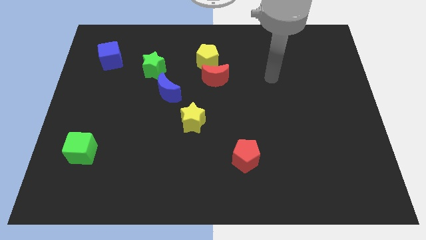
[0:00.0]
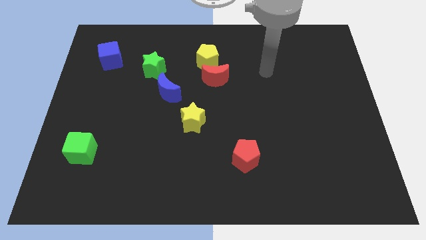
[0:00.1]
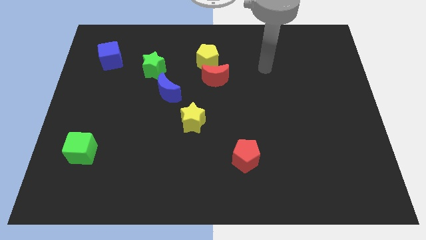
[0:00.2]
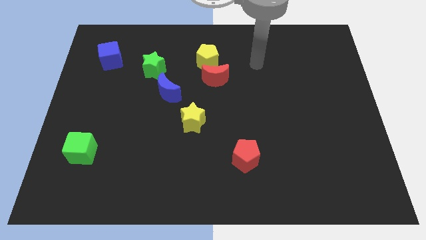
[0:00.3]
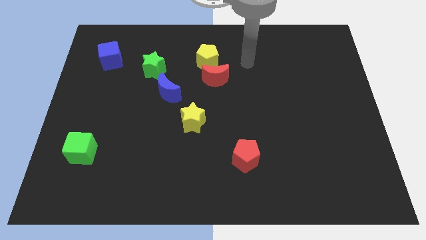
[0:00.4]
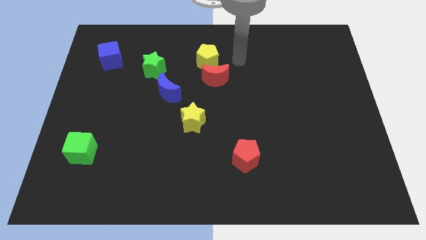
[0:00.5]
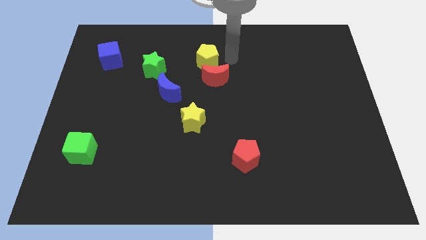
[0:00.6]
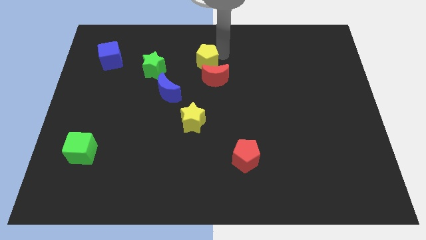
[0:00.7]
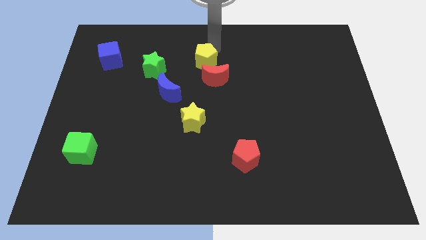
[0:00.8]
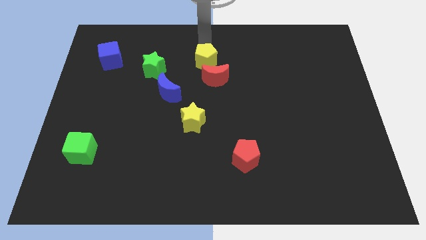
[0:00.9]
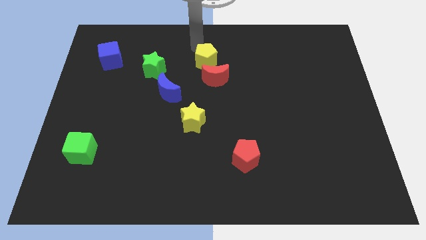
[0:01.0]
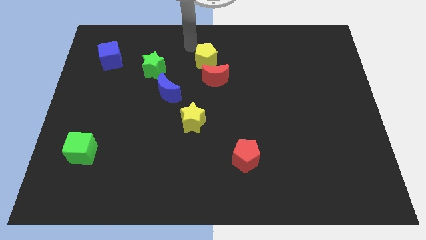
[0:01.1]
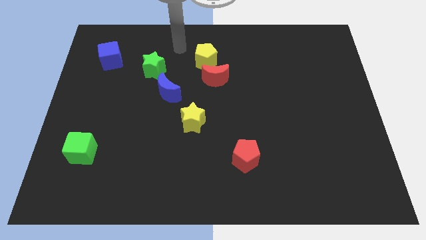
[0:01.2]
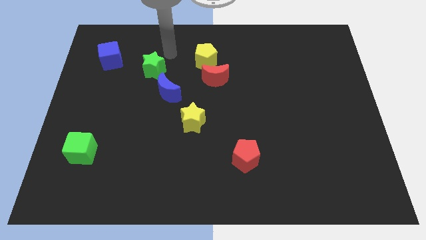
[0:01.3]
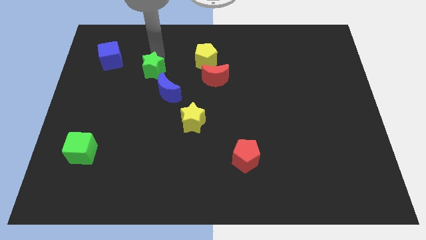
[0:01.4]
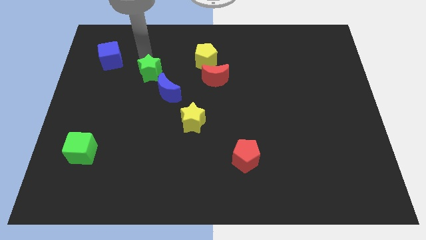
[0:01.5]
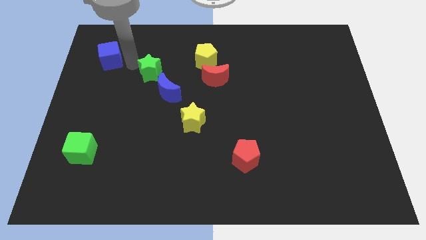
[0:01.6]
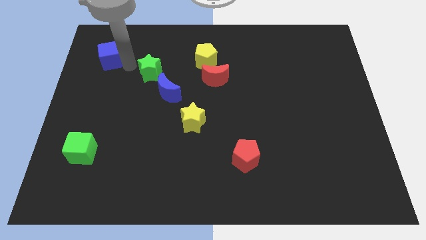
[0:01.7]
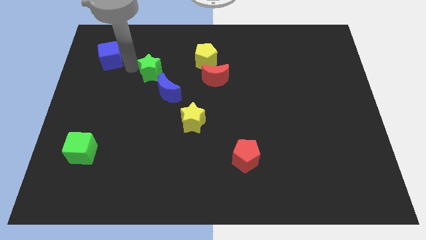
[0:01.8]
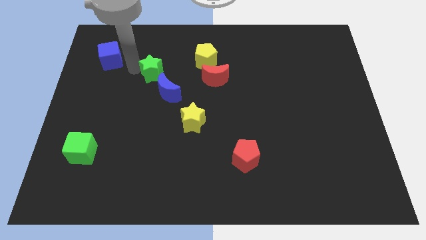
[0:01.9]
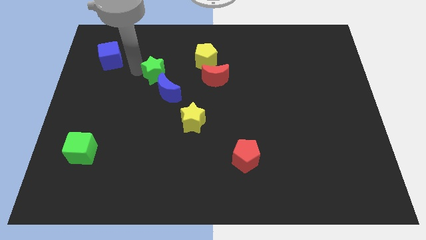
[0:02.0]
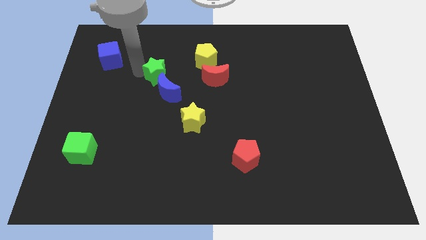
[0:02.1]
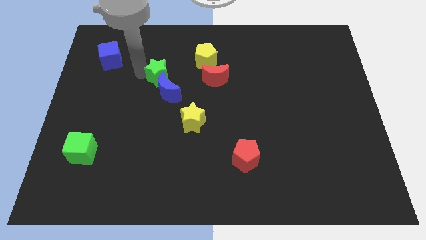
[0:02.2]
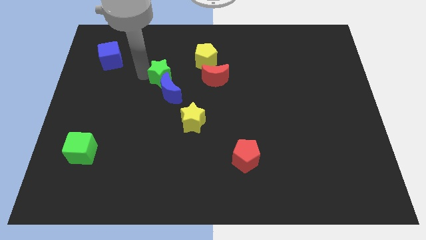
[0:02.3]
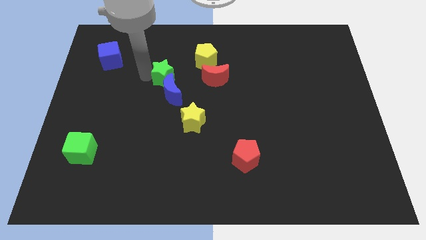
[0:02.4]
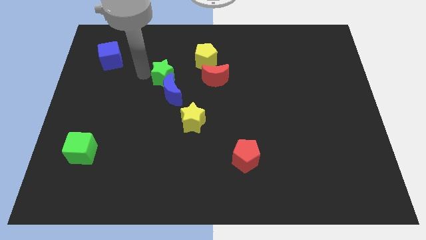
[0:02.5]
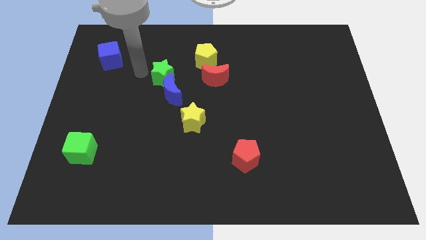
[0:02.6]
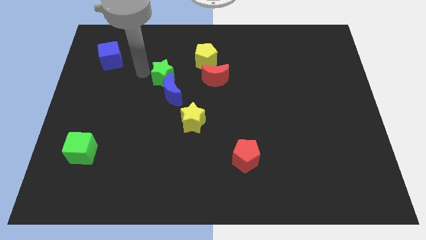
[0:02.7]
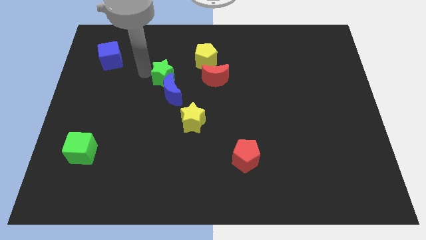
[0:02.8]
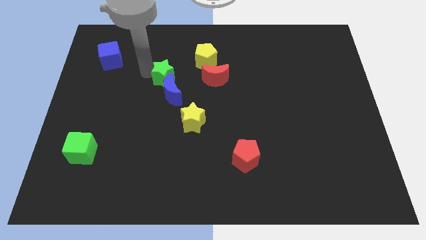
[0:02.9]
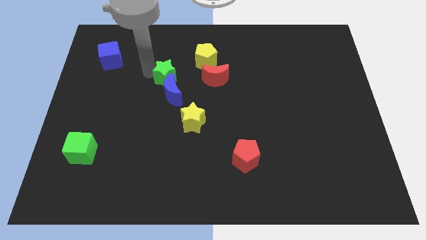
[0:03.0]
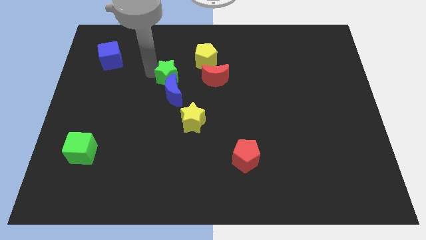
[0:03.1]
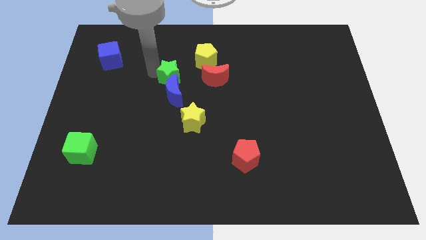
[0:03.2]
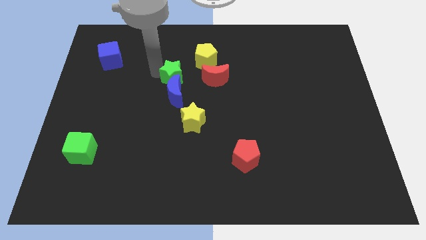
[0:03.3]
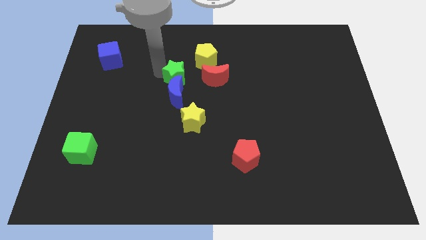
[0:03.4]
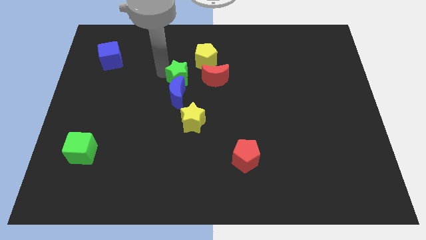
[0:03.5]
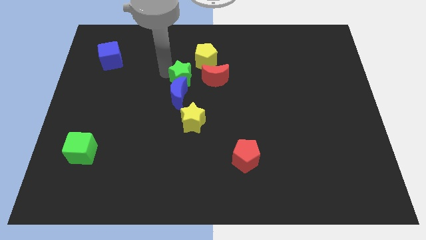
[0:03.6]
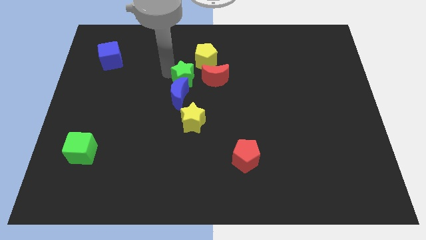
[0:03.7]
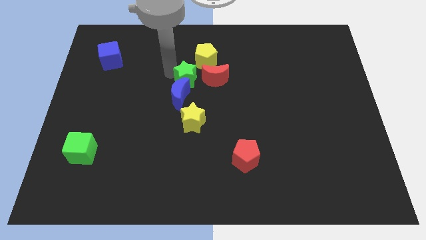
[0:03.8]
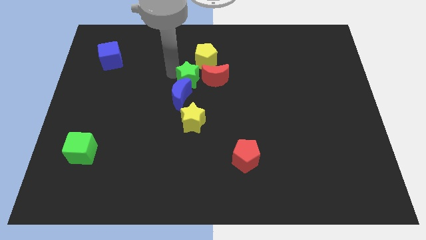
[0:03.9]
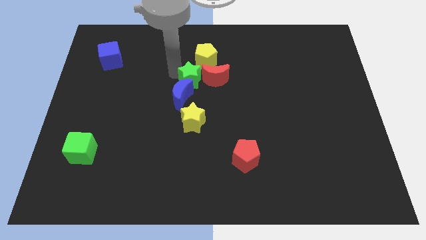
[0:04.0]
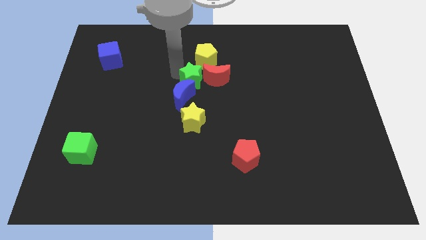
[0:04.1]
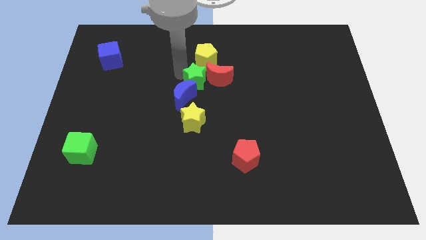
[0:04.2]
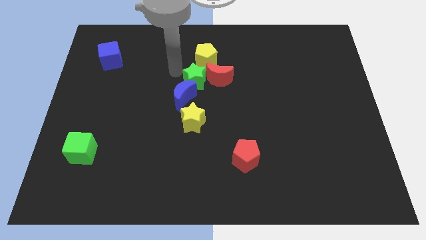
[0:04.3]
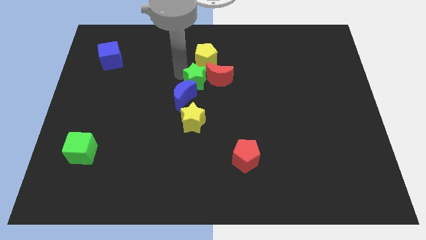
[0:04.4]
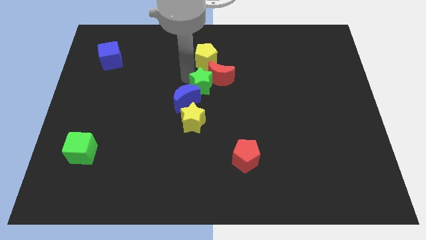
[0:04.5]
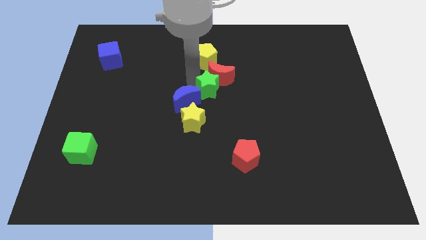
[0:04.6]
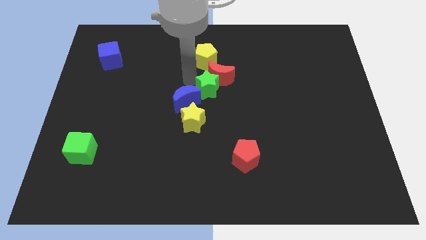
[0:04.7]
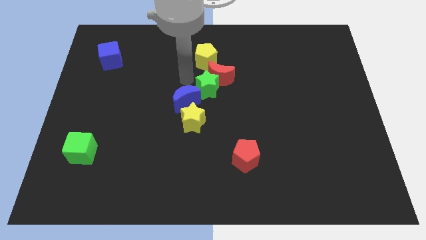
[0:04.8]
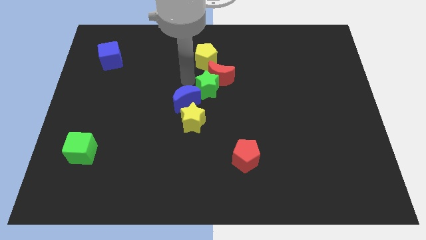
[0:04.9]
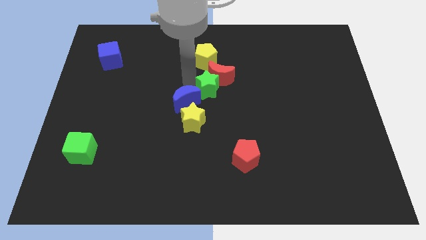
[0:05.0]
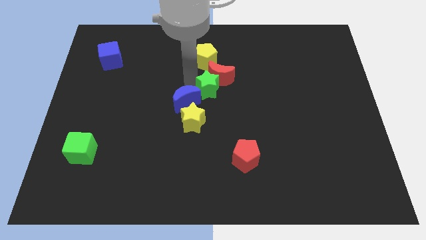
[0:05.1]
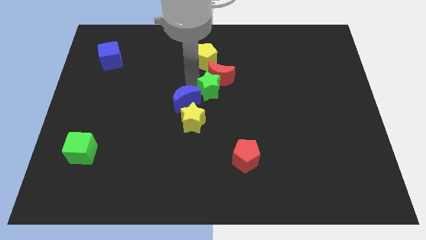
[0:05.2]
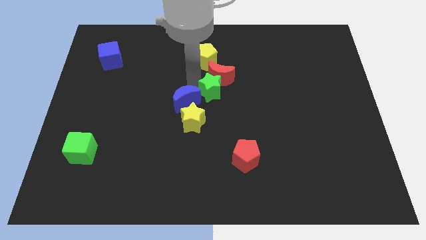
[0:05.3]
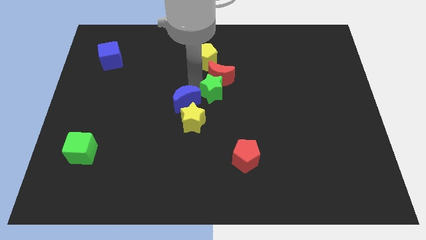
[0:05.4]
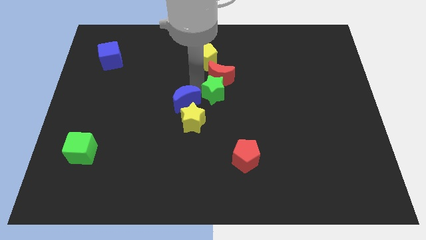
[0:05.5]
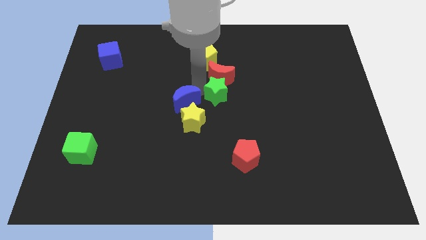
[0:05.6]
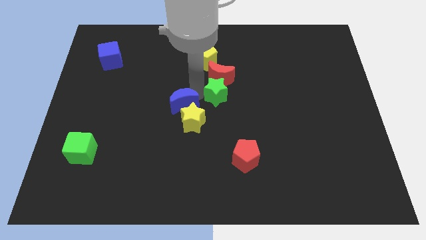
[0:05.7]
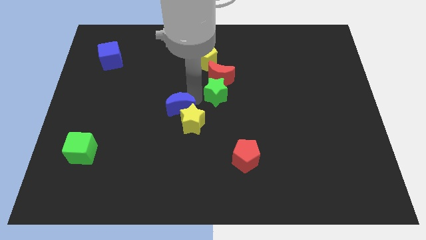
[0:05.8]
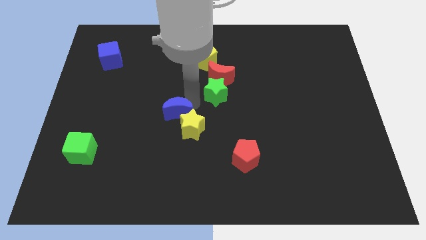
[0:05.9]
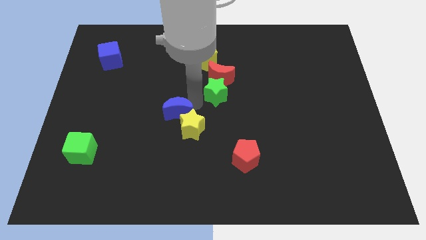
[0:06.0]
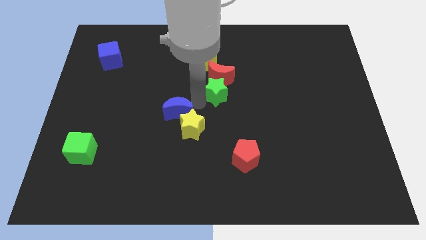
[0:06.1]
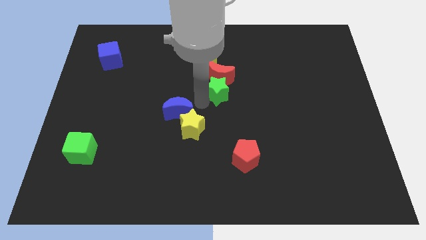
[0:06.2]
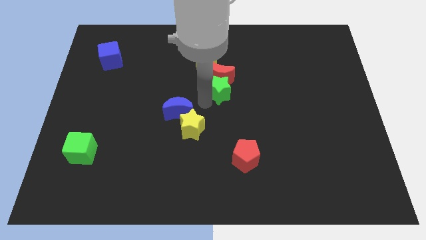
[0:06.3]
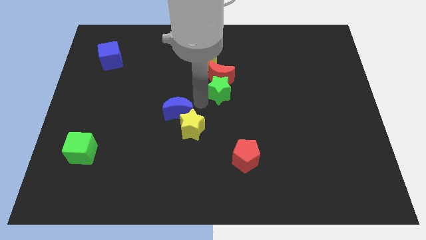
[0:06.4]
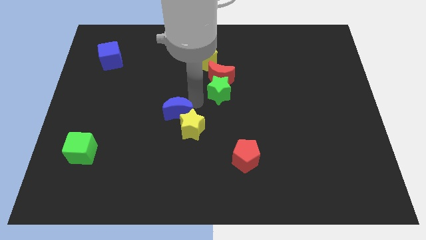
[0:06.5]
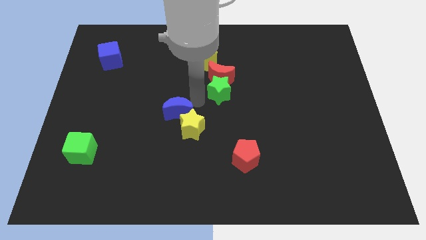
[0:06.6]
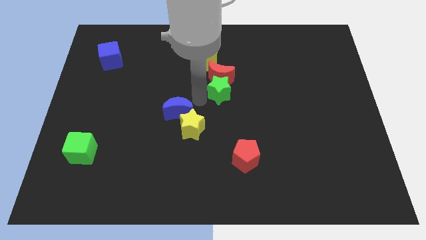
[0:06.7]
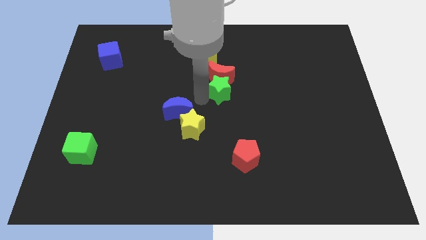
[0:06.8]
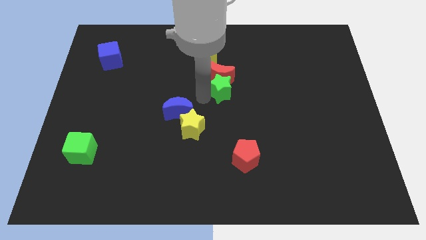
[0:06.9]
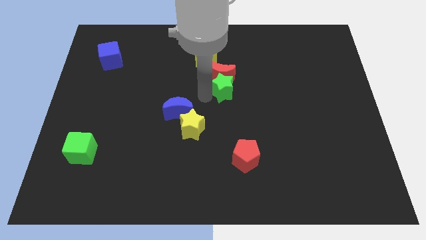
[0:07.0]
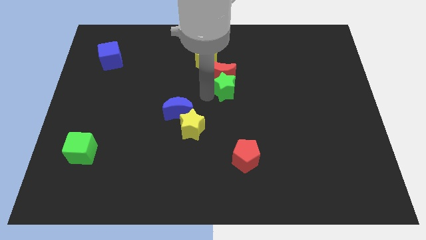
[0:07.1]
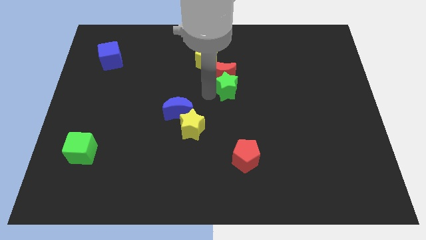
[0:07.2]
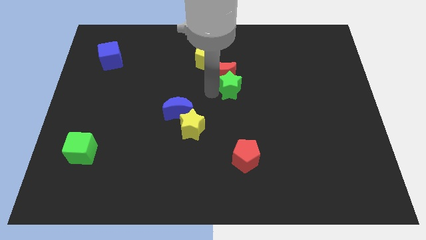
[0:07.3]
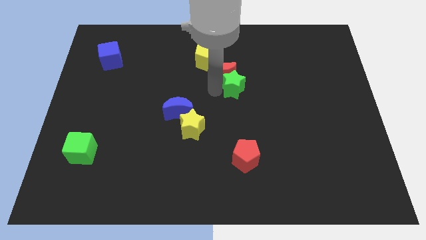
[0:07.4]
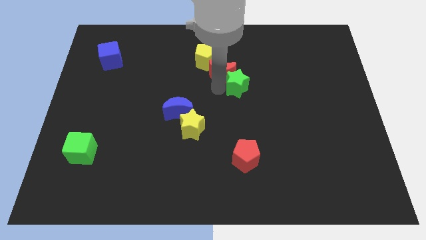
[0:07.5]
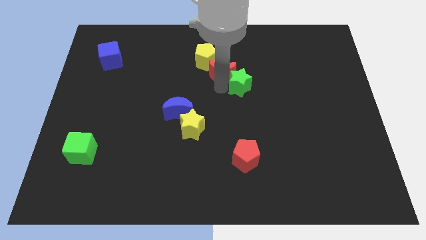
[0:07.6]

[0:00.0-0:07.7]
push the green star to the right

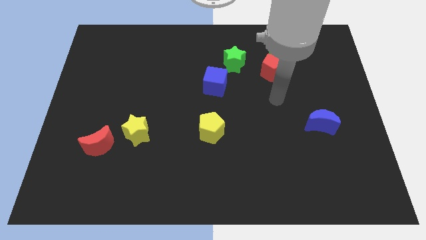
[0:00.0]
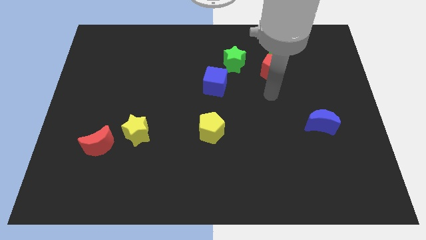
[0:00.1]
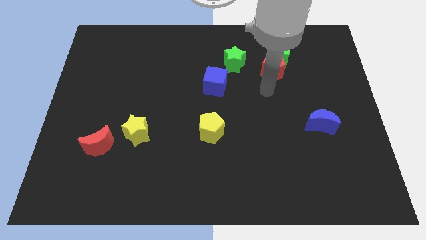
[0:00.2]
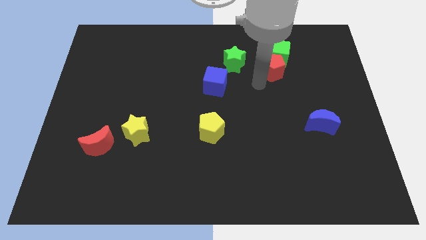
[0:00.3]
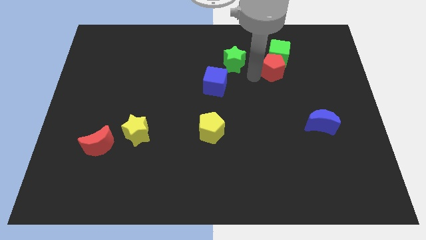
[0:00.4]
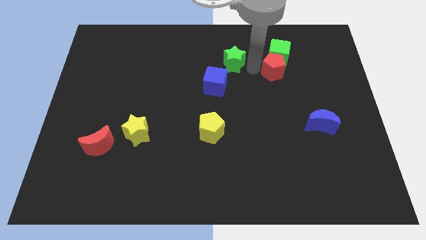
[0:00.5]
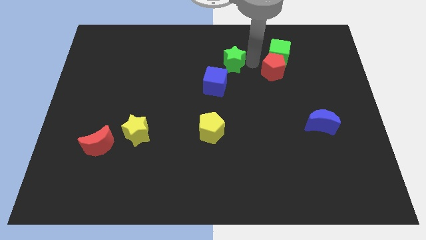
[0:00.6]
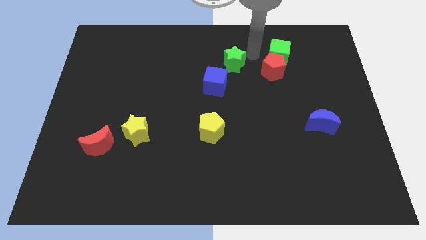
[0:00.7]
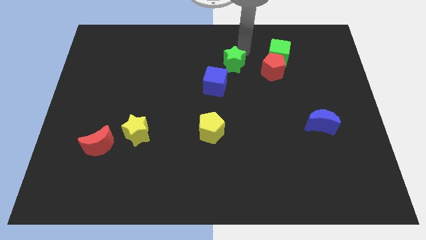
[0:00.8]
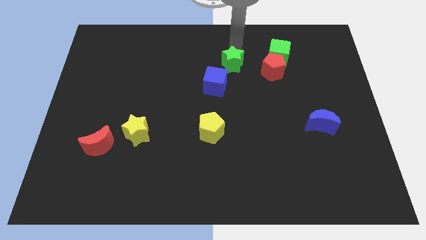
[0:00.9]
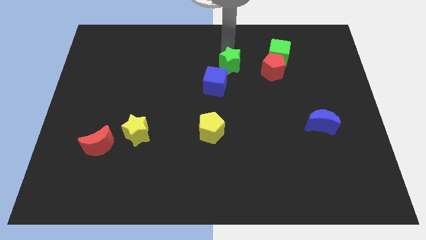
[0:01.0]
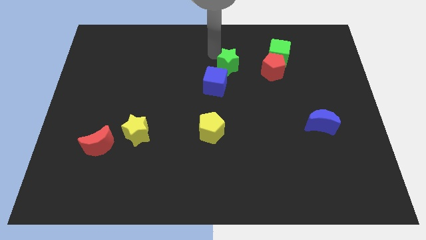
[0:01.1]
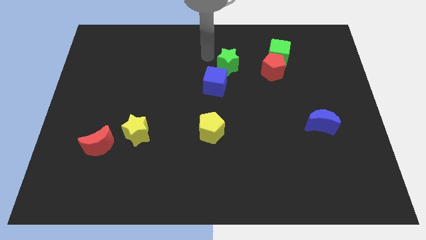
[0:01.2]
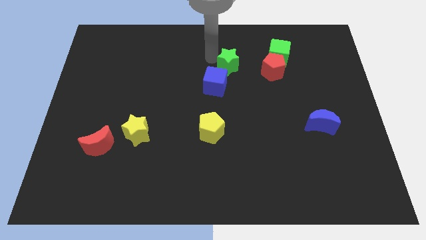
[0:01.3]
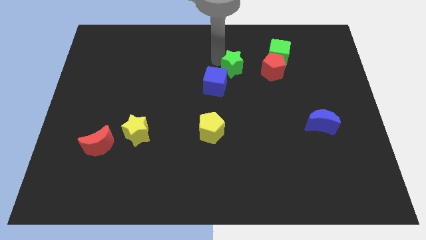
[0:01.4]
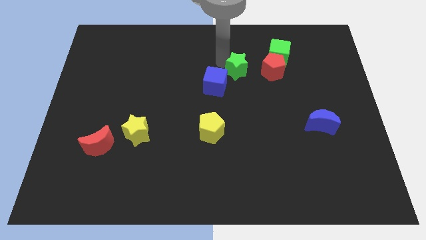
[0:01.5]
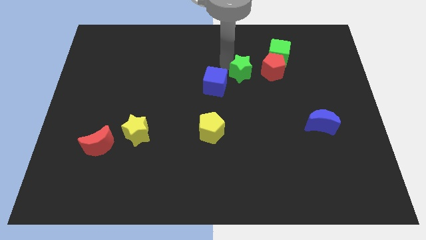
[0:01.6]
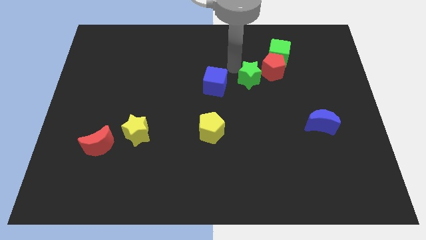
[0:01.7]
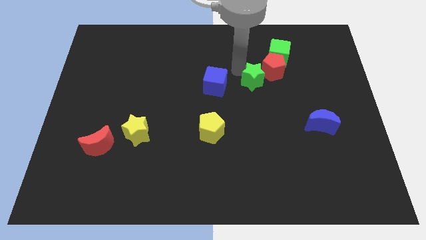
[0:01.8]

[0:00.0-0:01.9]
slide the green star downwards and then to the right a little bit
